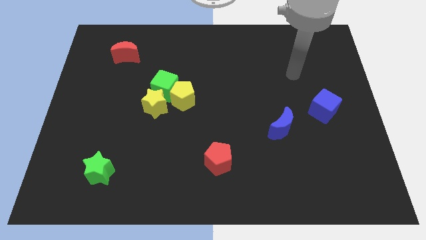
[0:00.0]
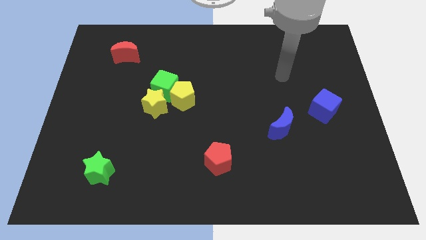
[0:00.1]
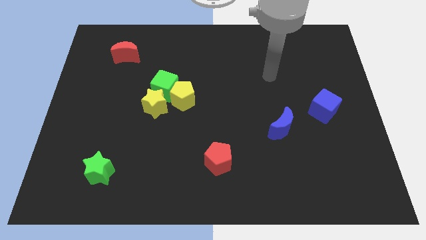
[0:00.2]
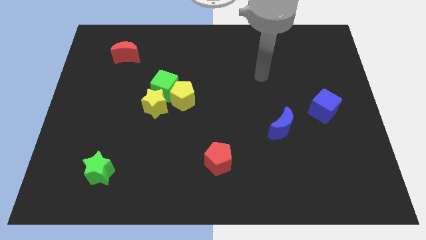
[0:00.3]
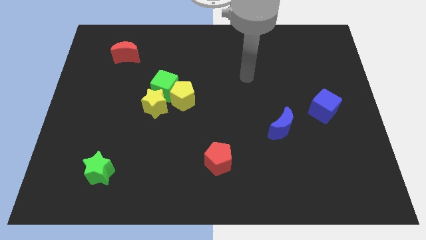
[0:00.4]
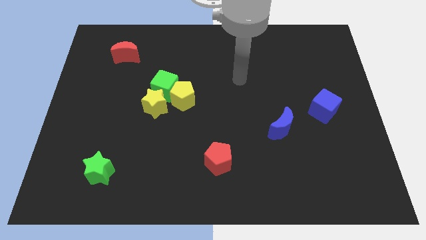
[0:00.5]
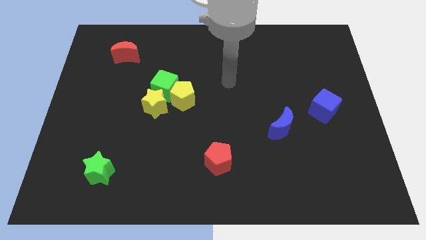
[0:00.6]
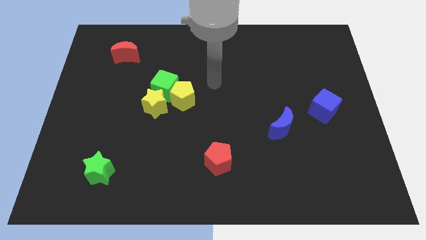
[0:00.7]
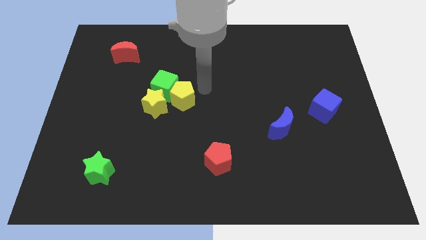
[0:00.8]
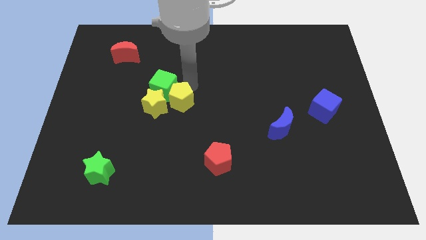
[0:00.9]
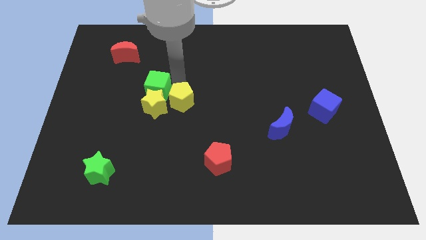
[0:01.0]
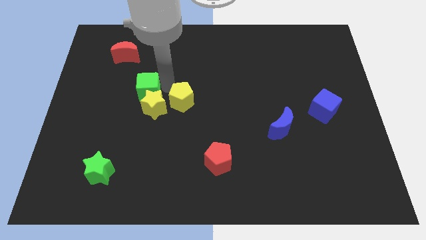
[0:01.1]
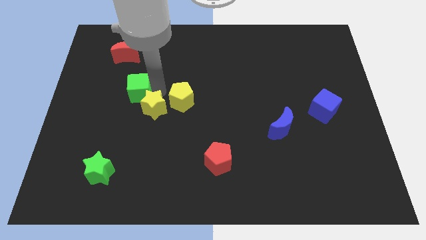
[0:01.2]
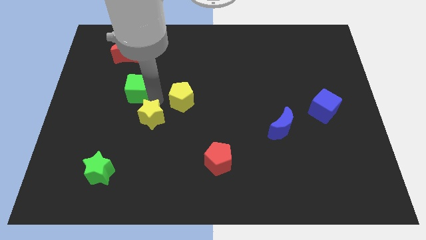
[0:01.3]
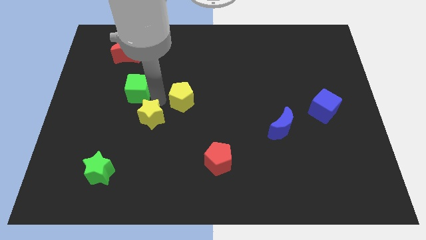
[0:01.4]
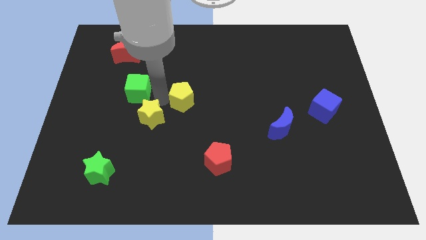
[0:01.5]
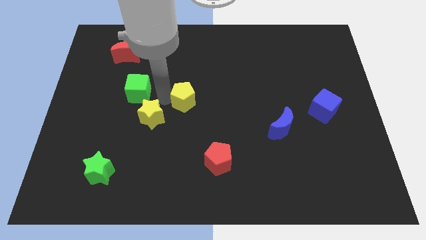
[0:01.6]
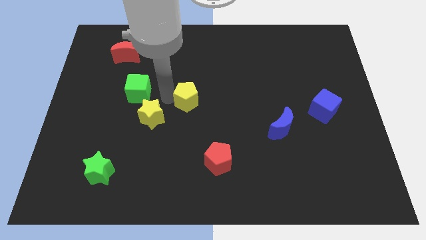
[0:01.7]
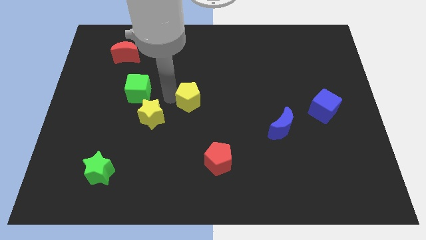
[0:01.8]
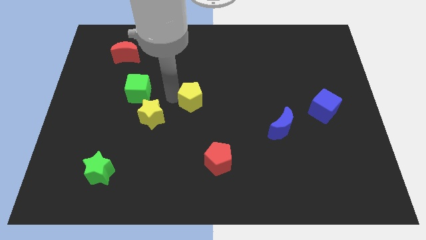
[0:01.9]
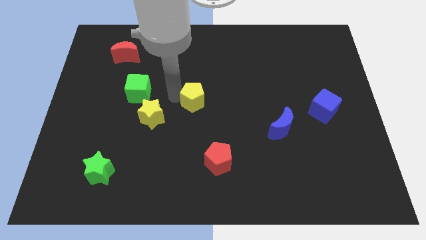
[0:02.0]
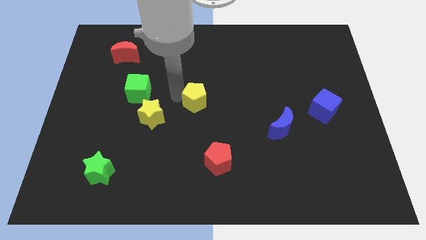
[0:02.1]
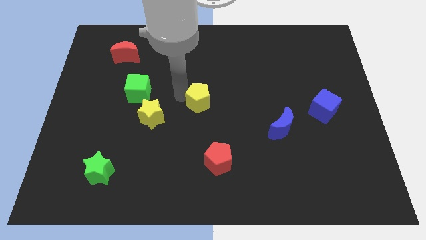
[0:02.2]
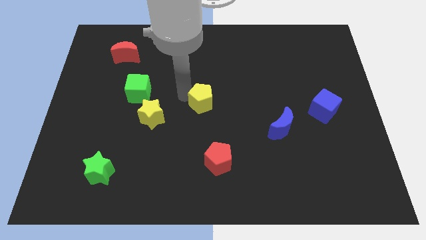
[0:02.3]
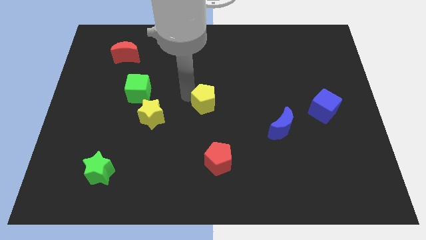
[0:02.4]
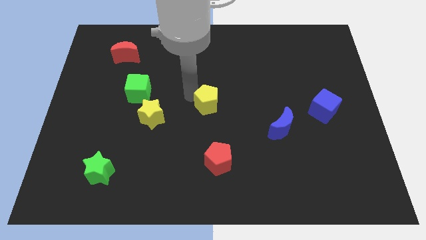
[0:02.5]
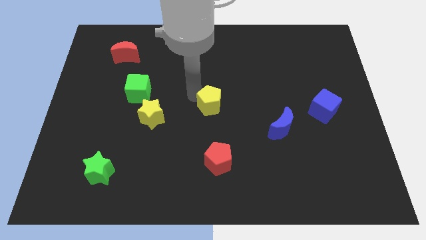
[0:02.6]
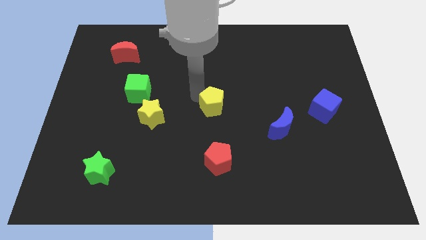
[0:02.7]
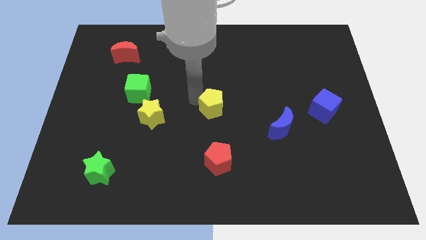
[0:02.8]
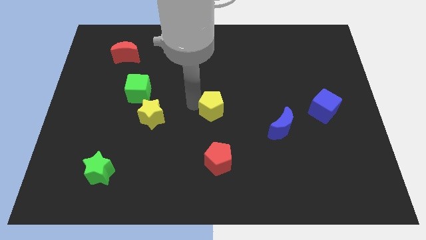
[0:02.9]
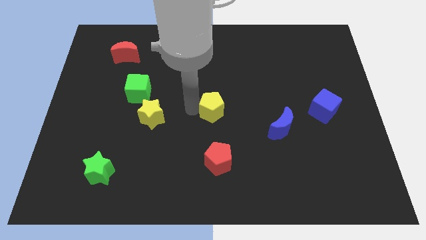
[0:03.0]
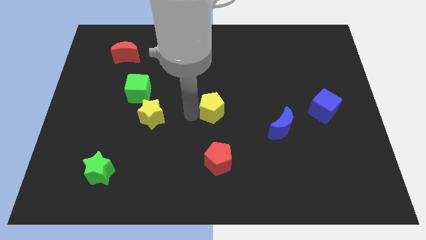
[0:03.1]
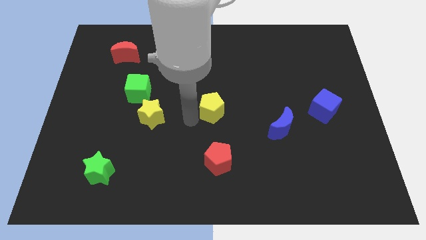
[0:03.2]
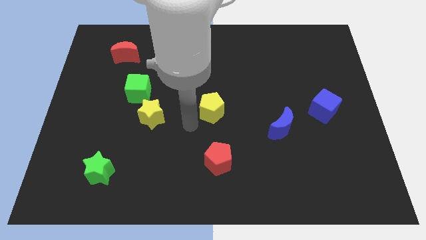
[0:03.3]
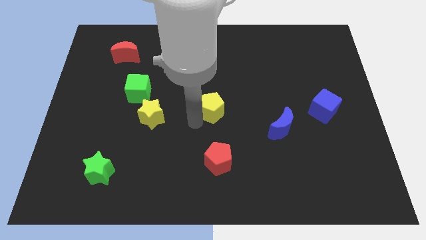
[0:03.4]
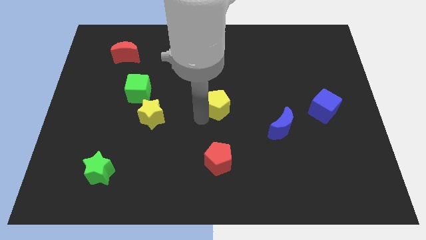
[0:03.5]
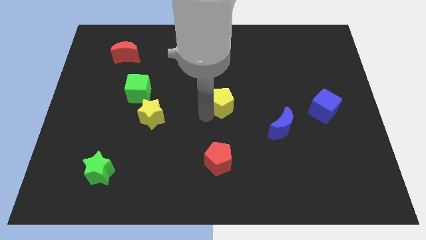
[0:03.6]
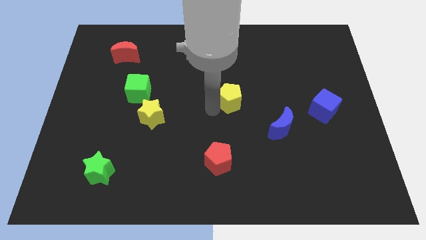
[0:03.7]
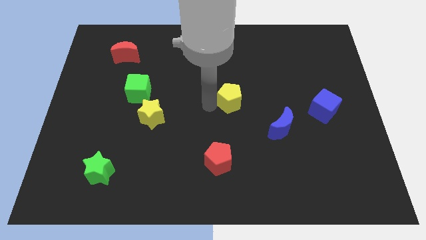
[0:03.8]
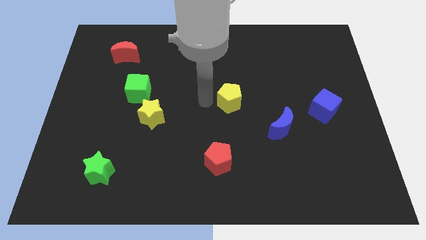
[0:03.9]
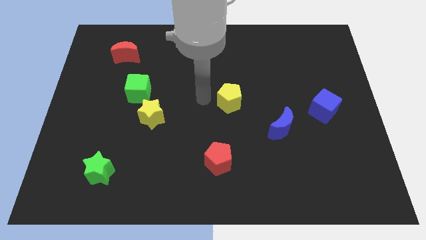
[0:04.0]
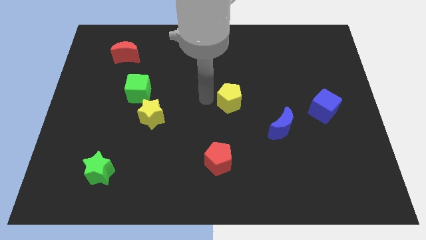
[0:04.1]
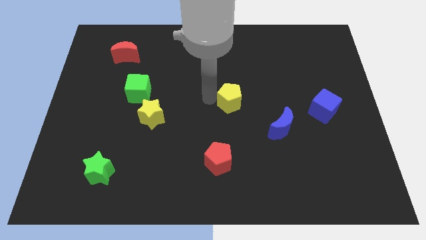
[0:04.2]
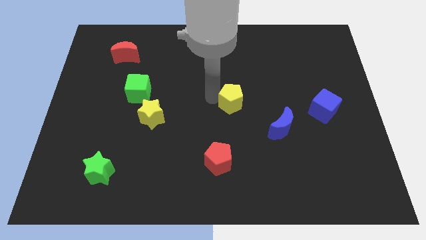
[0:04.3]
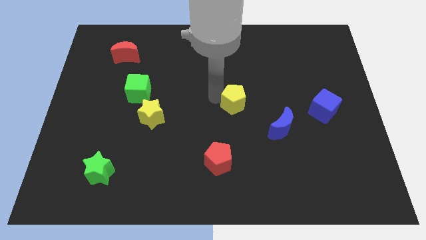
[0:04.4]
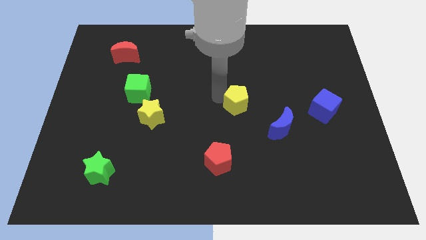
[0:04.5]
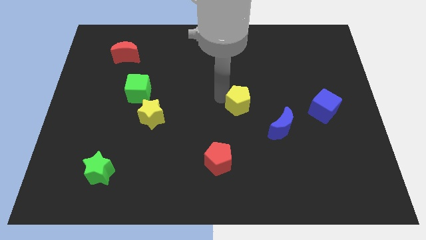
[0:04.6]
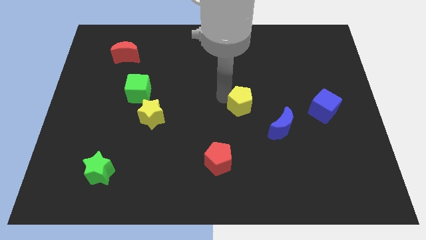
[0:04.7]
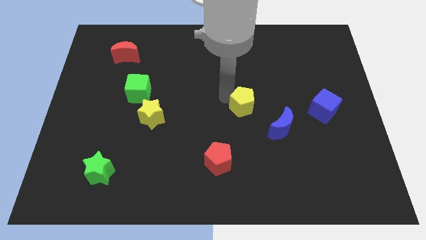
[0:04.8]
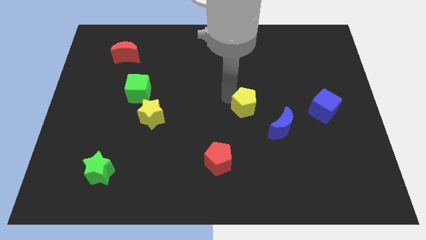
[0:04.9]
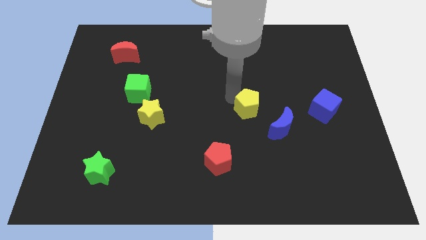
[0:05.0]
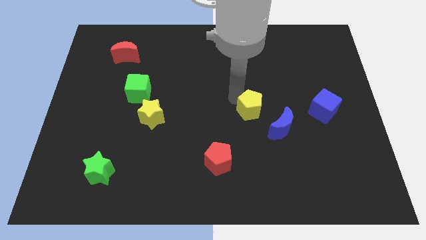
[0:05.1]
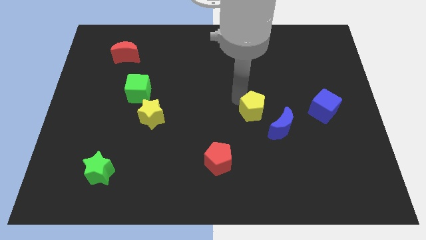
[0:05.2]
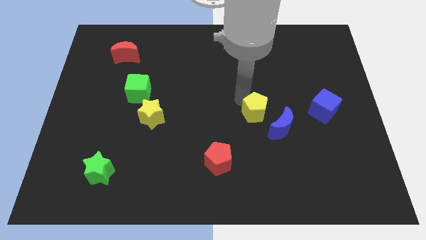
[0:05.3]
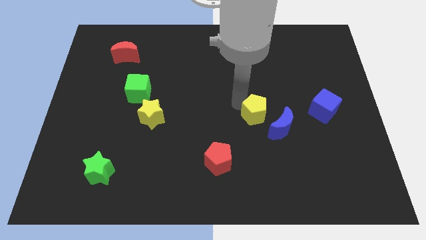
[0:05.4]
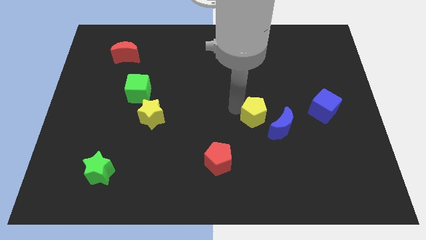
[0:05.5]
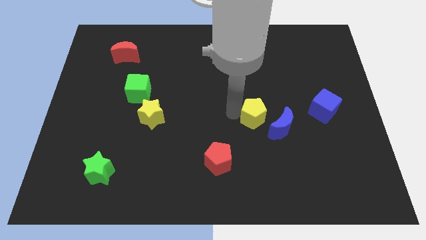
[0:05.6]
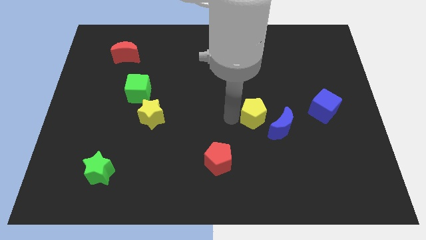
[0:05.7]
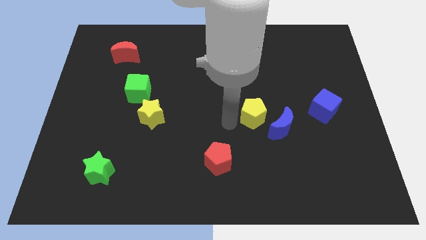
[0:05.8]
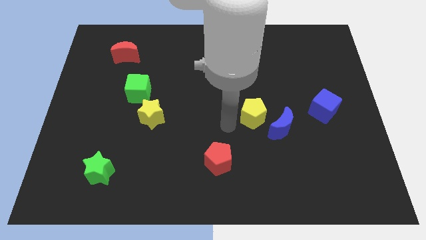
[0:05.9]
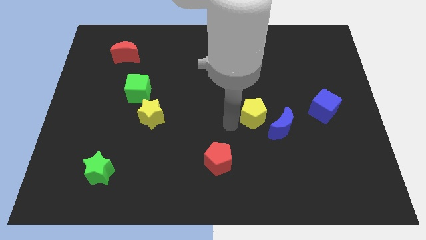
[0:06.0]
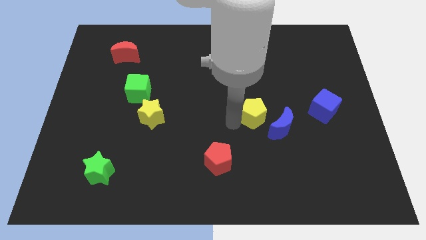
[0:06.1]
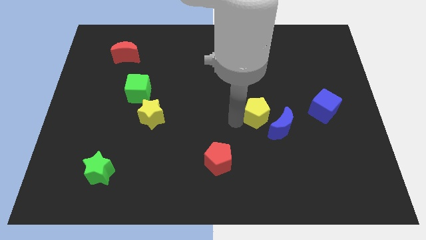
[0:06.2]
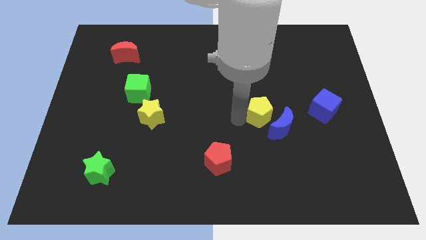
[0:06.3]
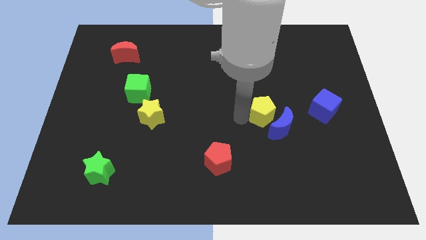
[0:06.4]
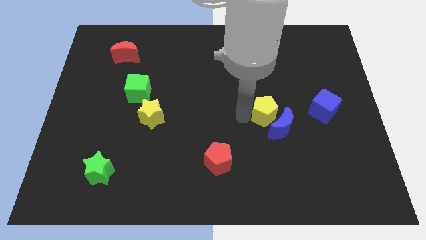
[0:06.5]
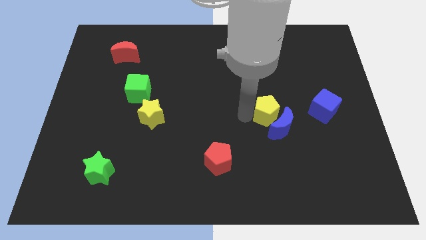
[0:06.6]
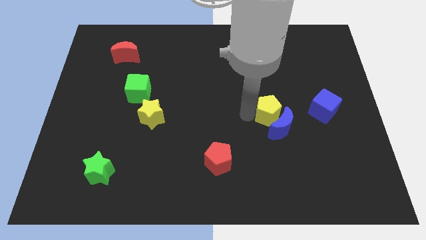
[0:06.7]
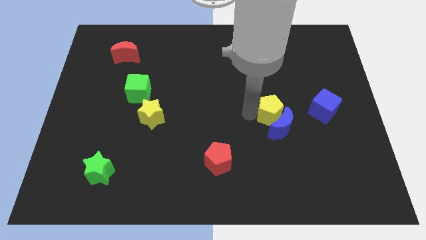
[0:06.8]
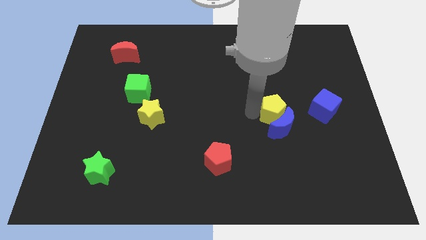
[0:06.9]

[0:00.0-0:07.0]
push the yellow pentagon diagonally up and to the right of the blue moon
